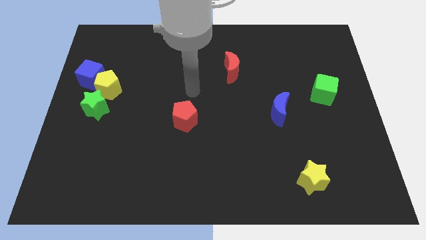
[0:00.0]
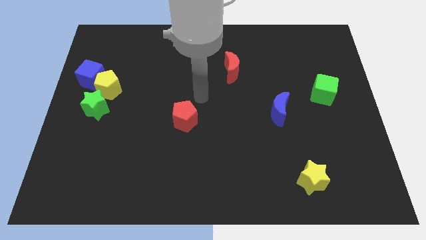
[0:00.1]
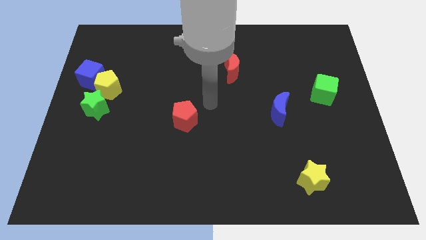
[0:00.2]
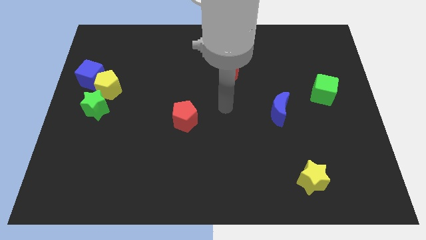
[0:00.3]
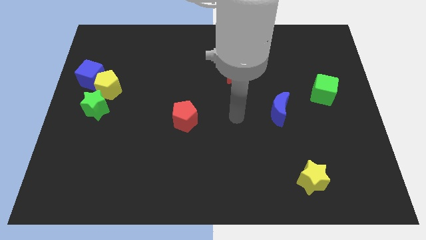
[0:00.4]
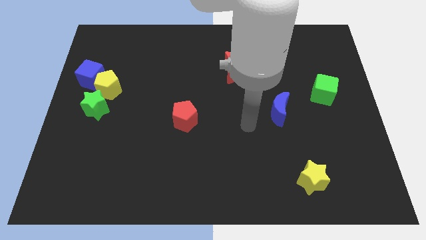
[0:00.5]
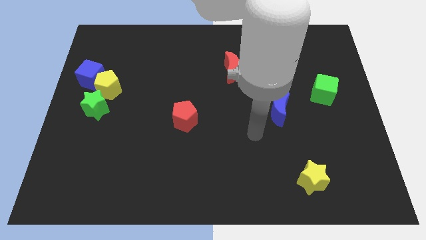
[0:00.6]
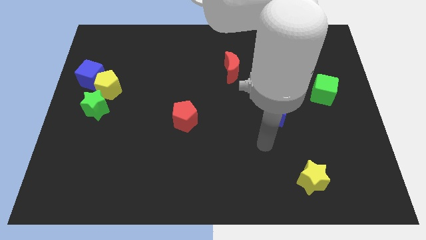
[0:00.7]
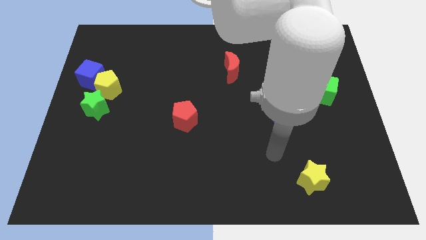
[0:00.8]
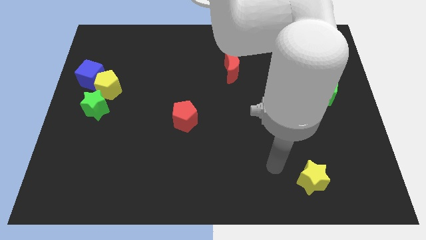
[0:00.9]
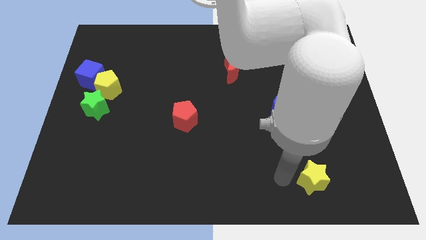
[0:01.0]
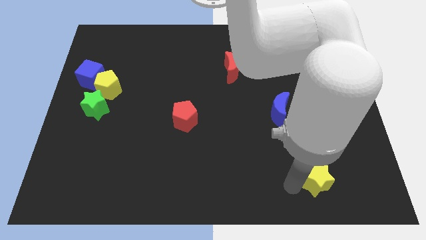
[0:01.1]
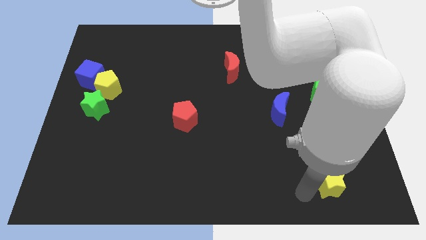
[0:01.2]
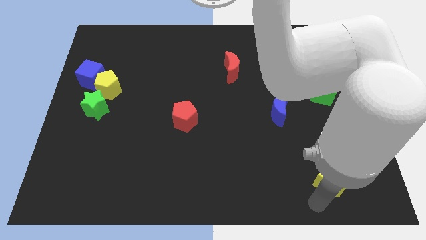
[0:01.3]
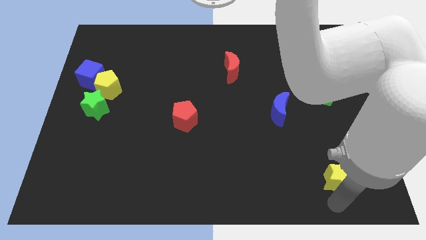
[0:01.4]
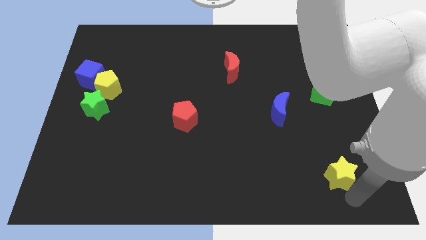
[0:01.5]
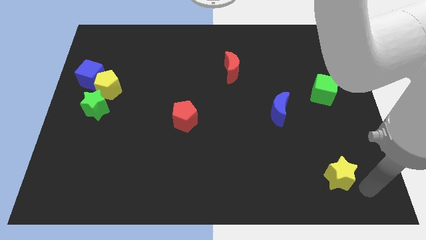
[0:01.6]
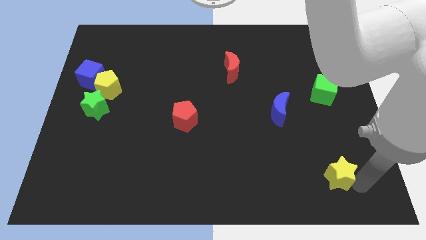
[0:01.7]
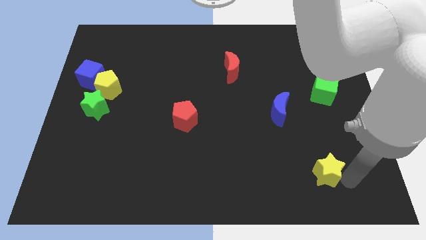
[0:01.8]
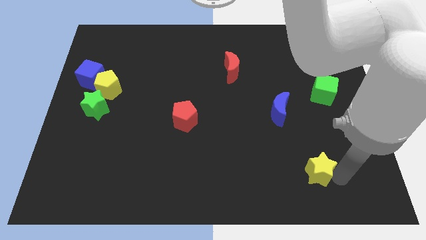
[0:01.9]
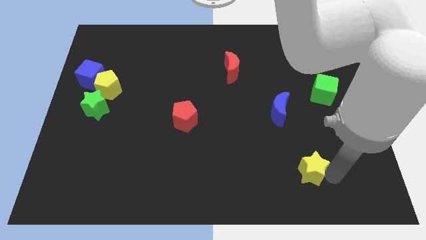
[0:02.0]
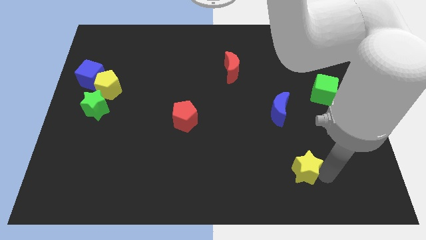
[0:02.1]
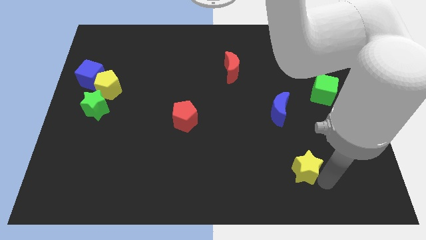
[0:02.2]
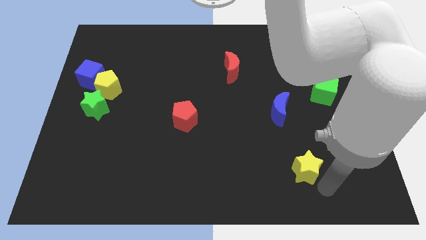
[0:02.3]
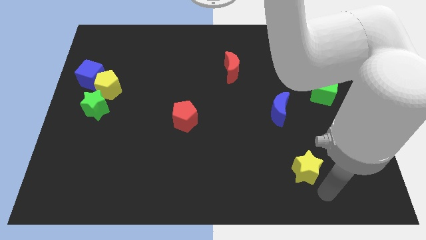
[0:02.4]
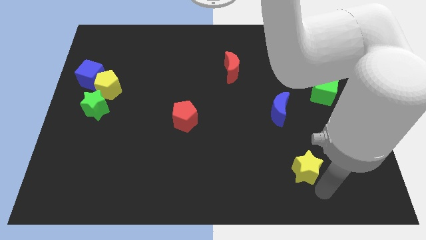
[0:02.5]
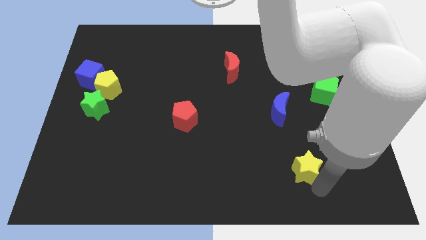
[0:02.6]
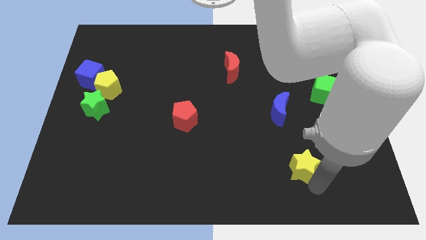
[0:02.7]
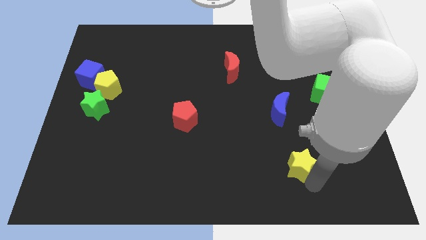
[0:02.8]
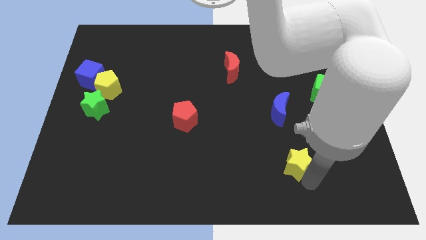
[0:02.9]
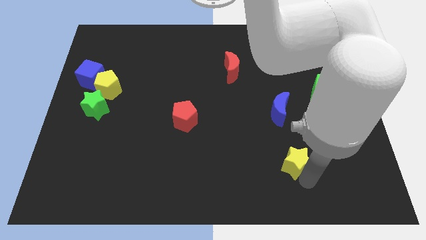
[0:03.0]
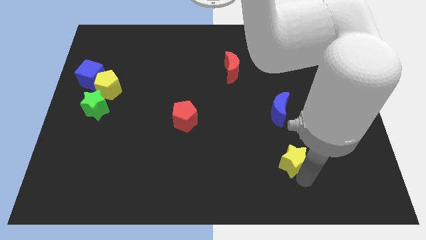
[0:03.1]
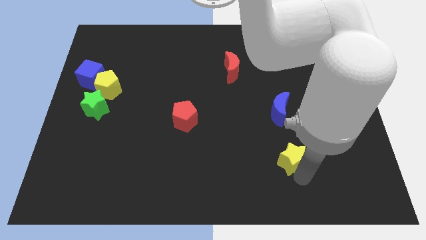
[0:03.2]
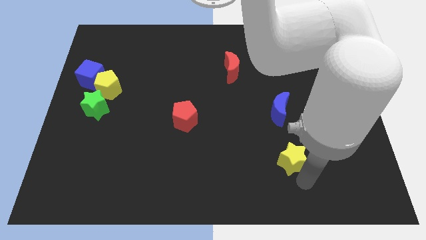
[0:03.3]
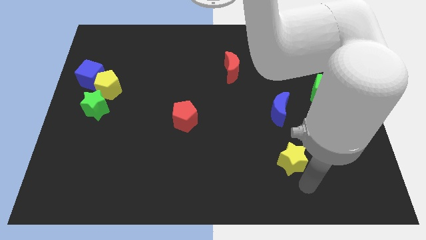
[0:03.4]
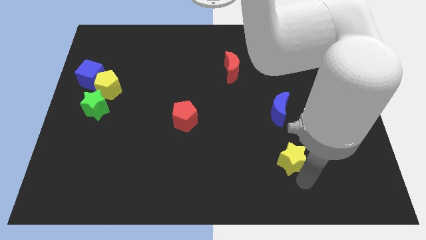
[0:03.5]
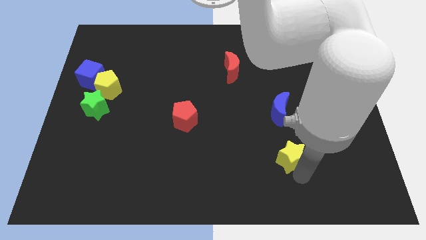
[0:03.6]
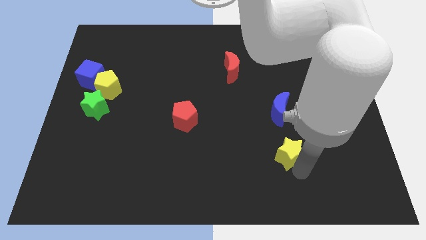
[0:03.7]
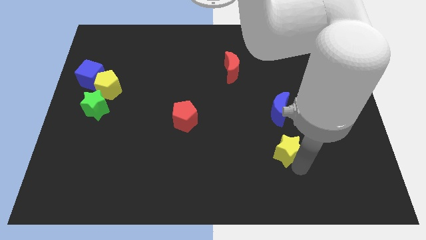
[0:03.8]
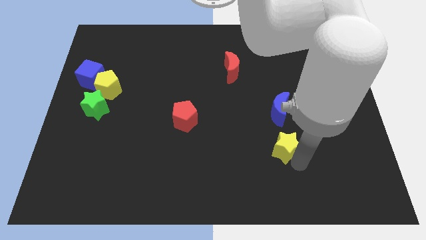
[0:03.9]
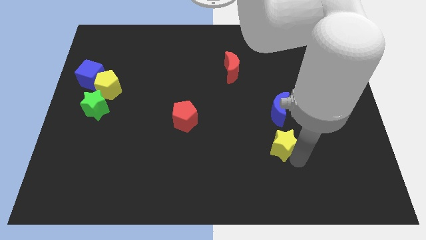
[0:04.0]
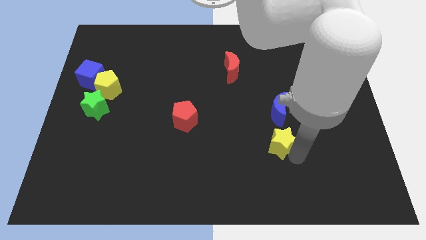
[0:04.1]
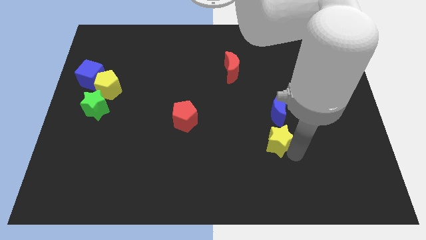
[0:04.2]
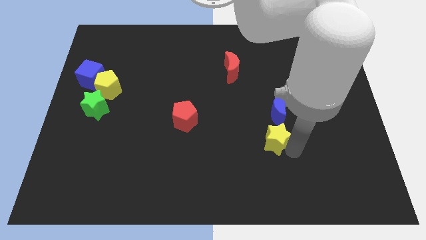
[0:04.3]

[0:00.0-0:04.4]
push the yellow star diagonally down and to the left of the blue moon

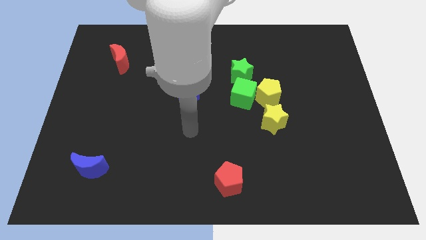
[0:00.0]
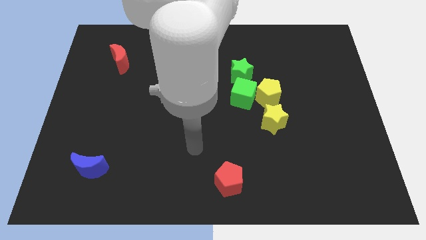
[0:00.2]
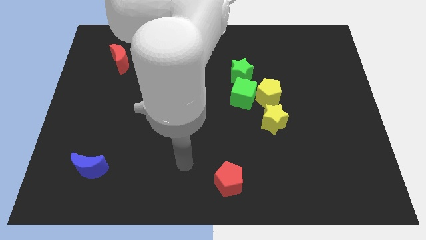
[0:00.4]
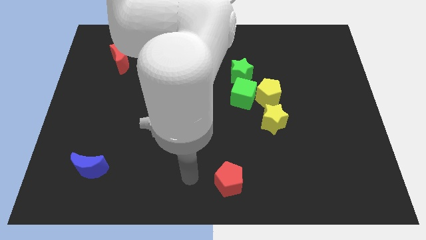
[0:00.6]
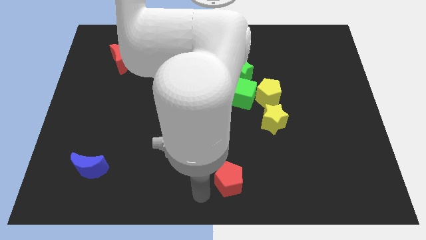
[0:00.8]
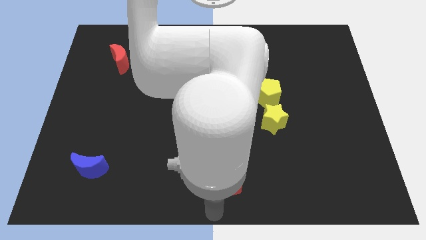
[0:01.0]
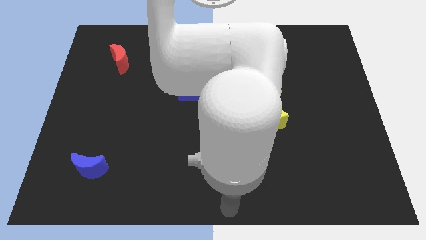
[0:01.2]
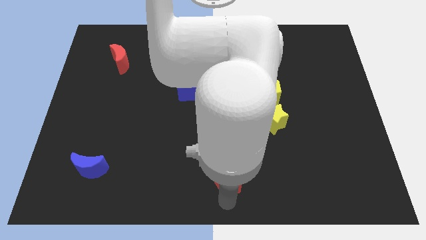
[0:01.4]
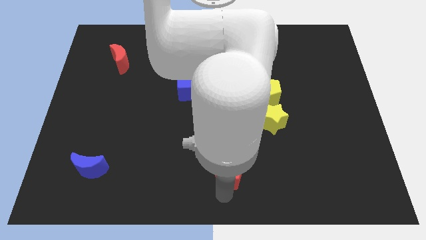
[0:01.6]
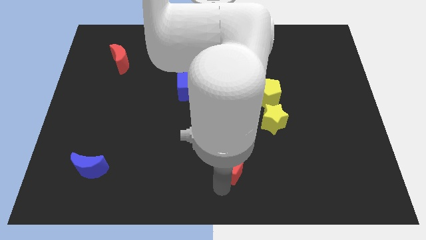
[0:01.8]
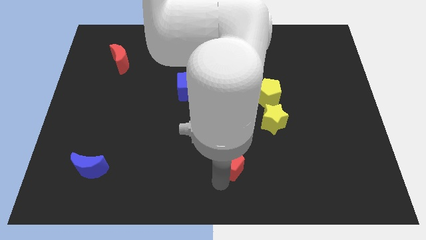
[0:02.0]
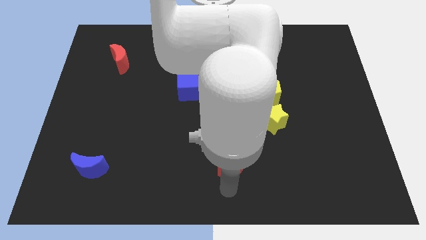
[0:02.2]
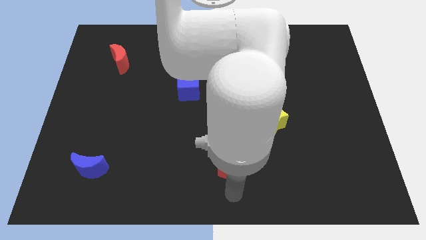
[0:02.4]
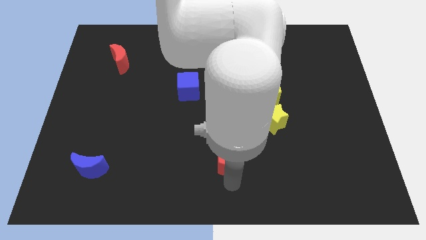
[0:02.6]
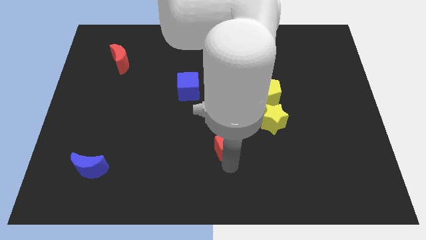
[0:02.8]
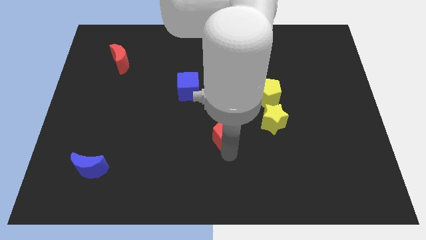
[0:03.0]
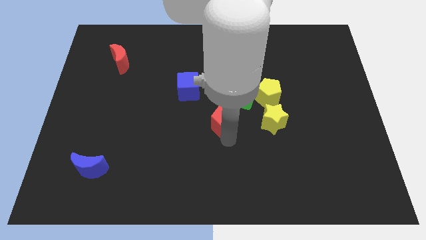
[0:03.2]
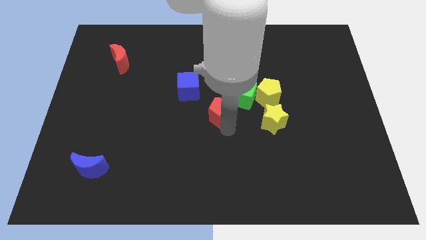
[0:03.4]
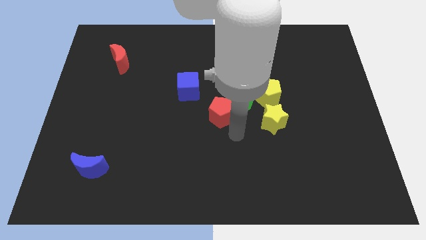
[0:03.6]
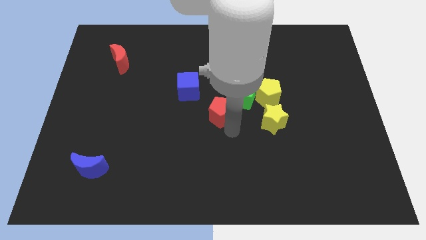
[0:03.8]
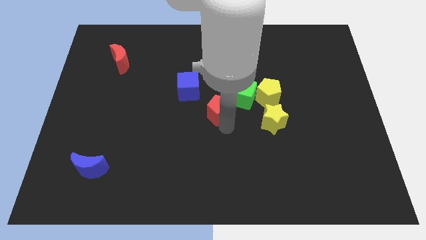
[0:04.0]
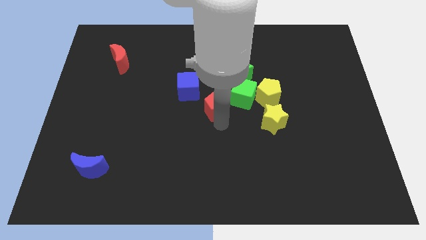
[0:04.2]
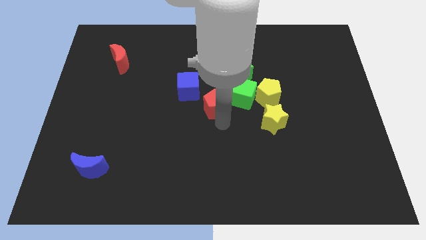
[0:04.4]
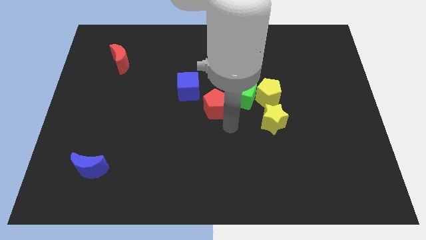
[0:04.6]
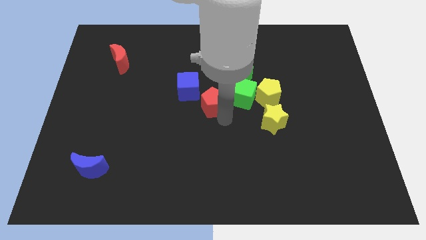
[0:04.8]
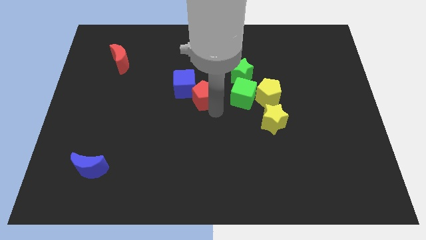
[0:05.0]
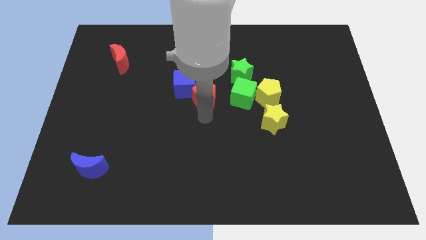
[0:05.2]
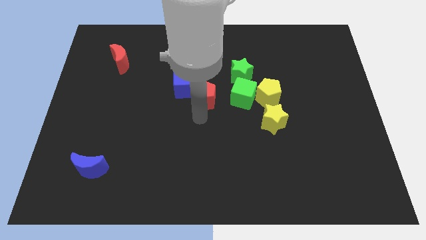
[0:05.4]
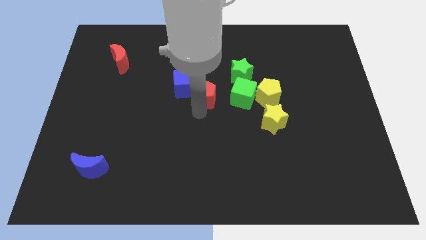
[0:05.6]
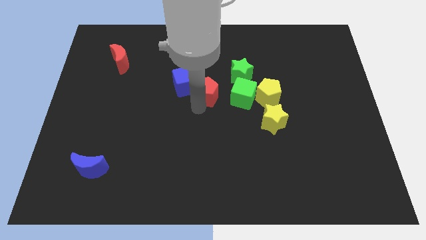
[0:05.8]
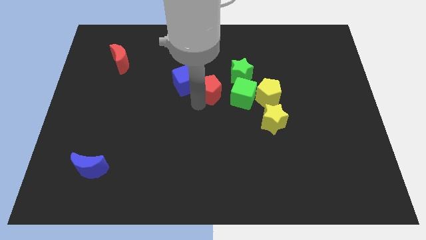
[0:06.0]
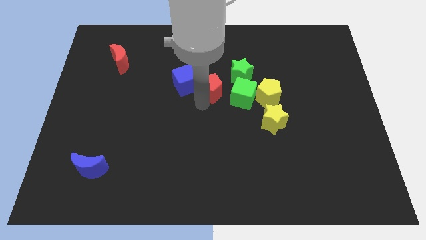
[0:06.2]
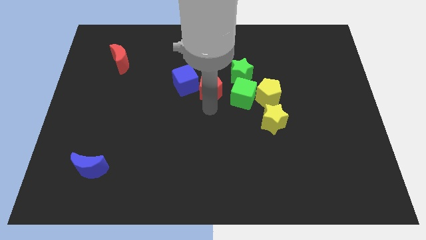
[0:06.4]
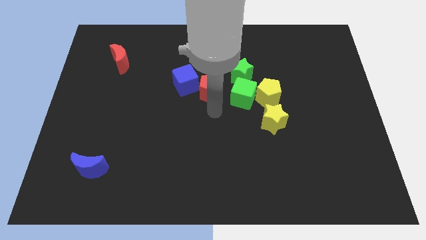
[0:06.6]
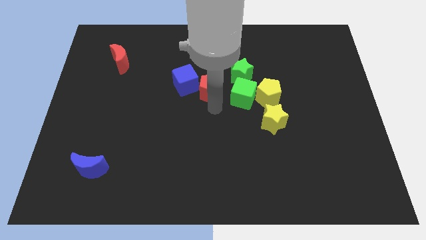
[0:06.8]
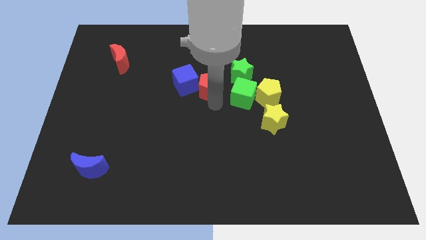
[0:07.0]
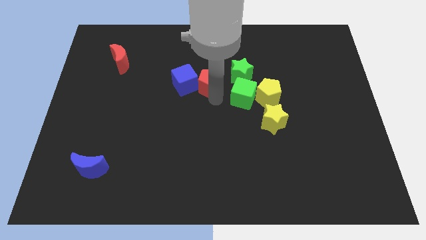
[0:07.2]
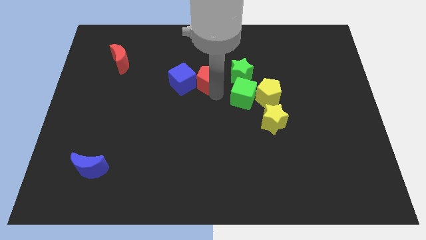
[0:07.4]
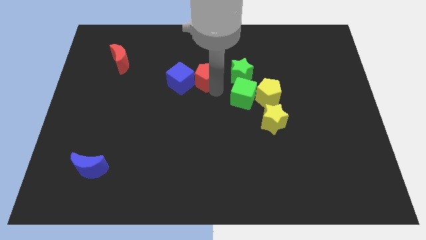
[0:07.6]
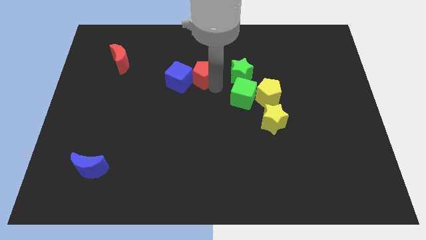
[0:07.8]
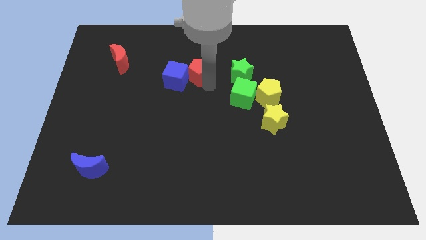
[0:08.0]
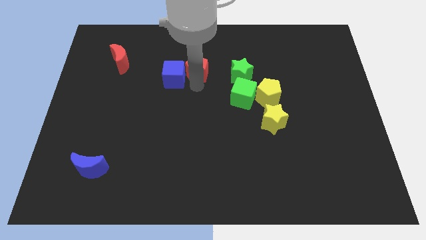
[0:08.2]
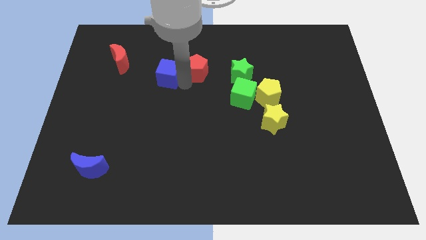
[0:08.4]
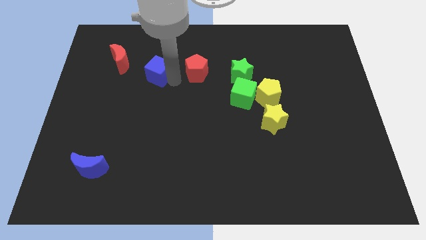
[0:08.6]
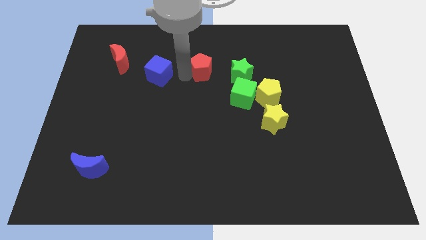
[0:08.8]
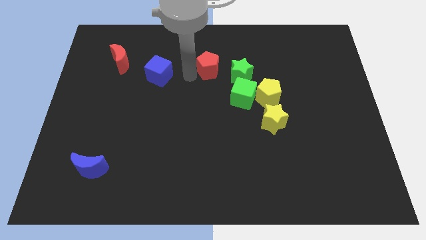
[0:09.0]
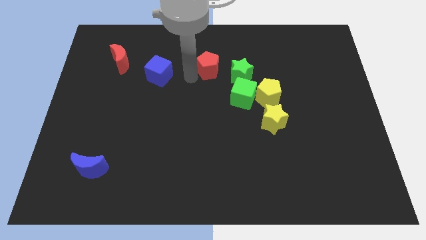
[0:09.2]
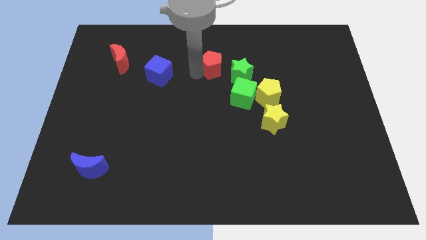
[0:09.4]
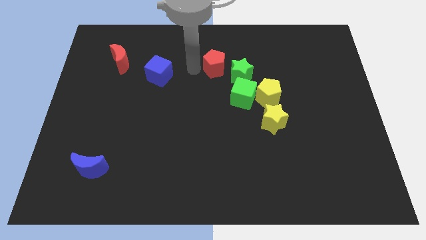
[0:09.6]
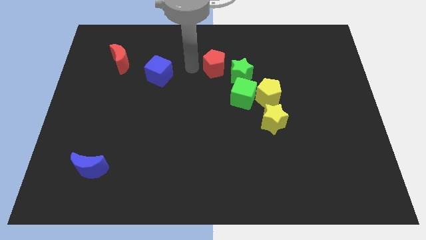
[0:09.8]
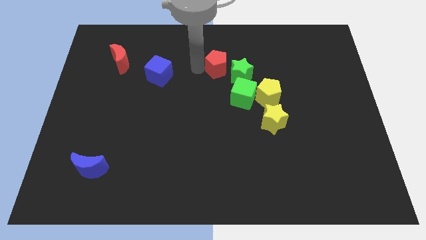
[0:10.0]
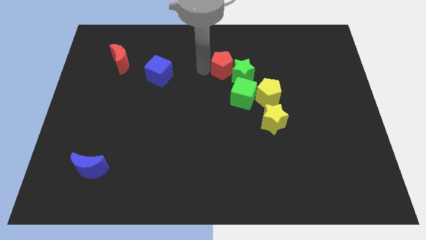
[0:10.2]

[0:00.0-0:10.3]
slide the red pentagon to the top of the green cube
